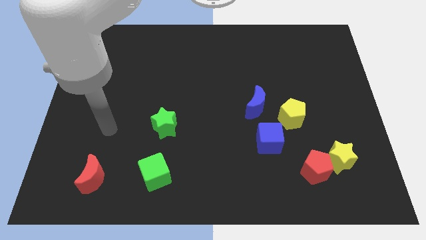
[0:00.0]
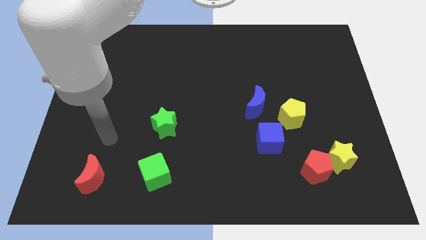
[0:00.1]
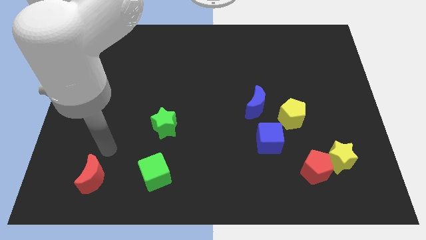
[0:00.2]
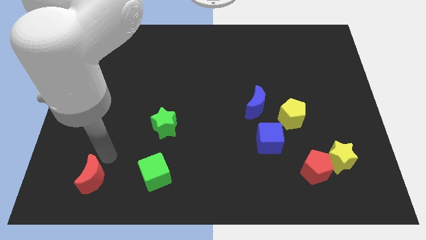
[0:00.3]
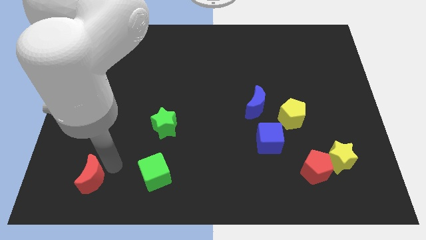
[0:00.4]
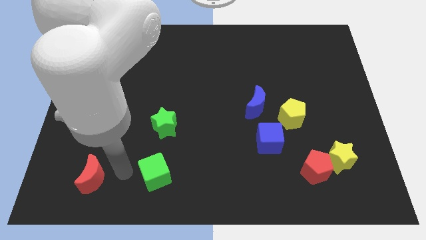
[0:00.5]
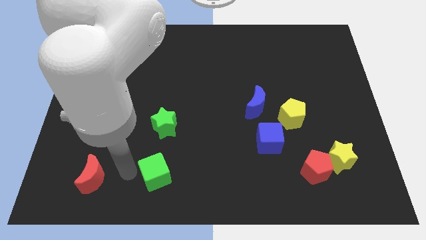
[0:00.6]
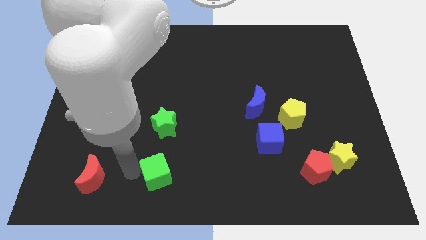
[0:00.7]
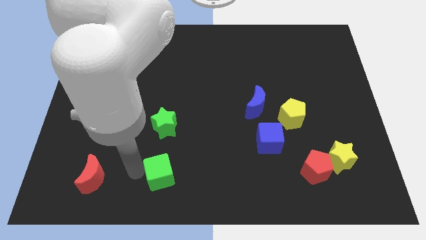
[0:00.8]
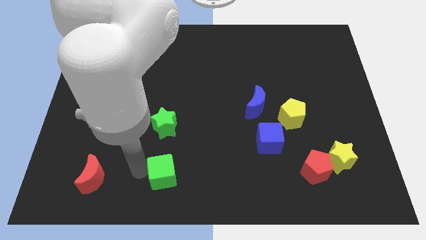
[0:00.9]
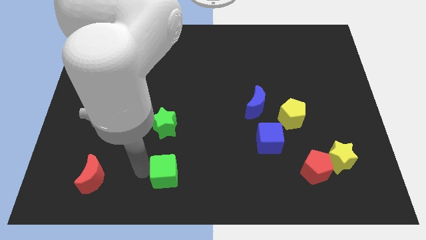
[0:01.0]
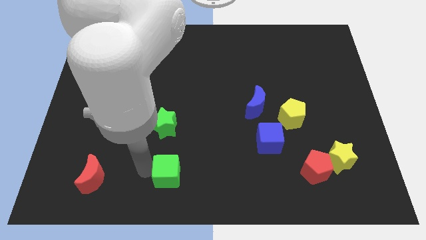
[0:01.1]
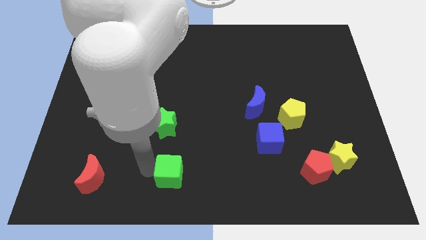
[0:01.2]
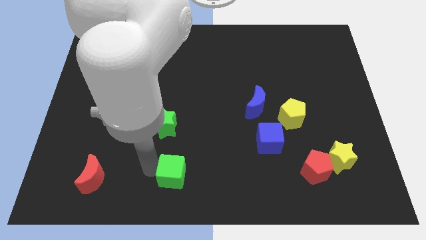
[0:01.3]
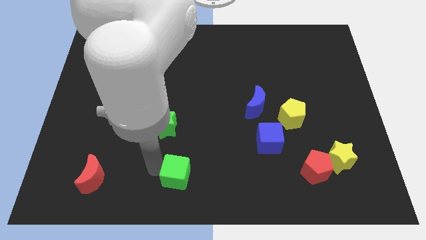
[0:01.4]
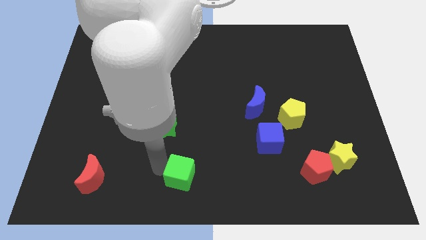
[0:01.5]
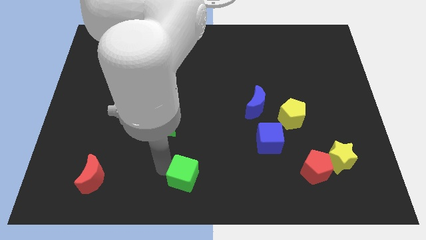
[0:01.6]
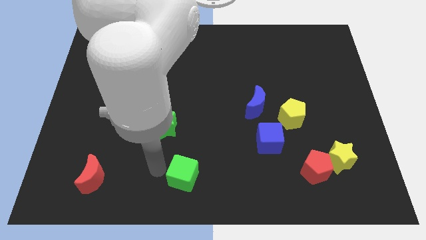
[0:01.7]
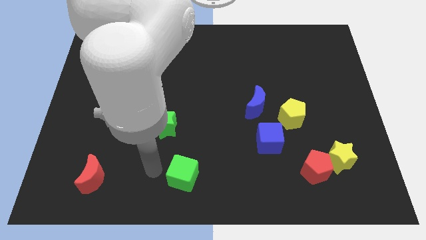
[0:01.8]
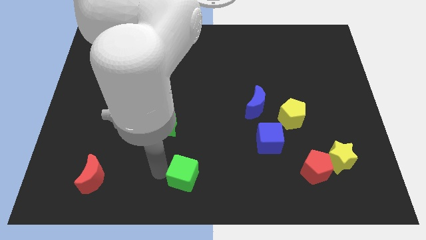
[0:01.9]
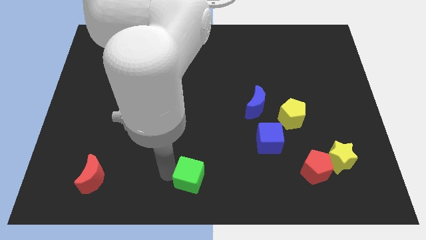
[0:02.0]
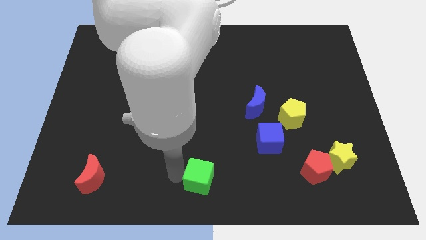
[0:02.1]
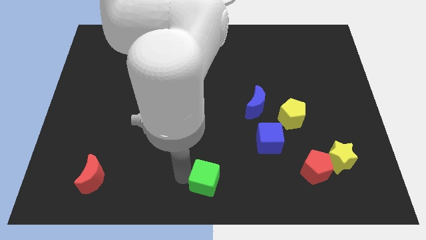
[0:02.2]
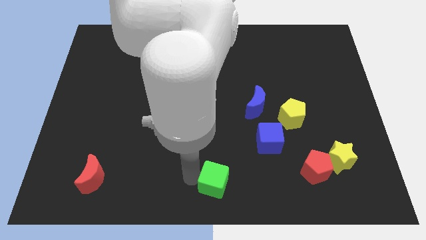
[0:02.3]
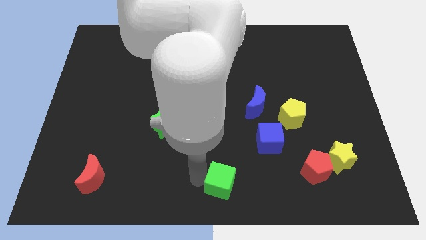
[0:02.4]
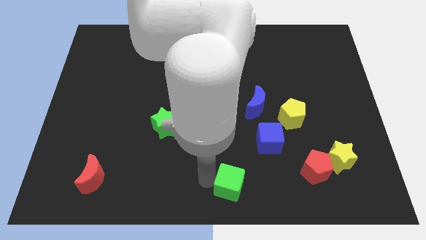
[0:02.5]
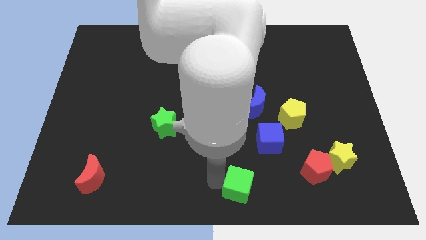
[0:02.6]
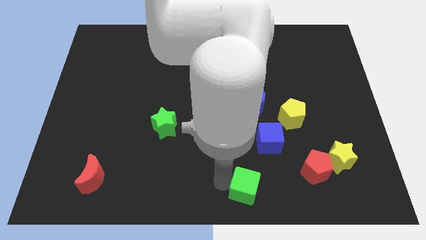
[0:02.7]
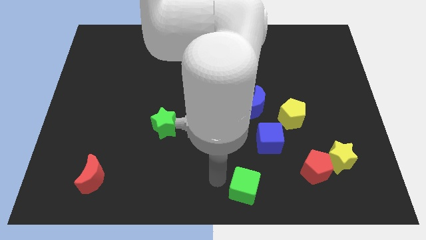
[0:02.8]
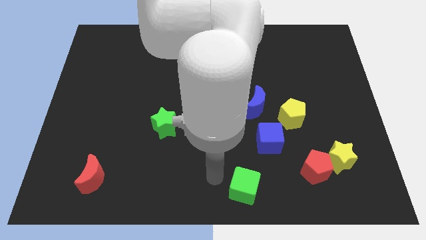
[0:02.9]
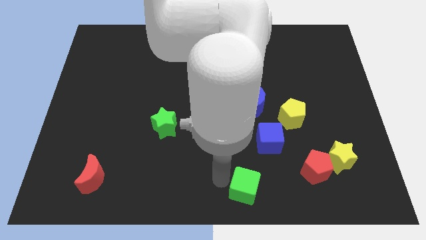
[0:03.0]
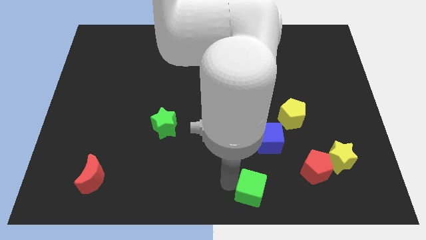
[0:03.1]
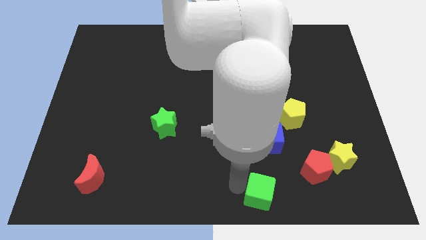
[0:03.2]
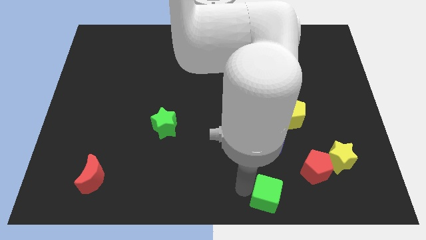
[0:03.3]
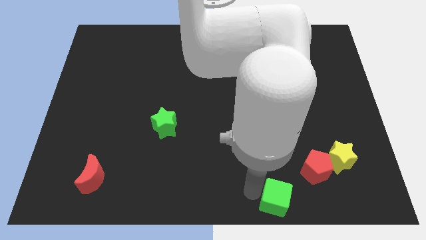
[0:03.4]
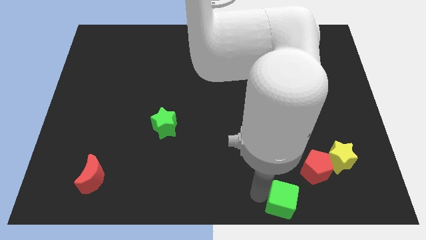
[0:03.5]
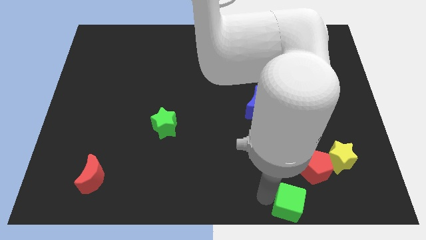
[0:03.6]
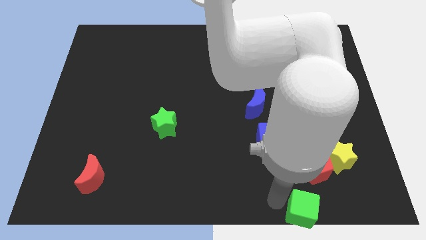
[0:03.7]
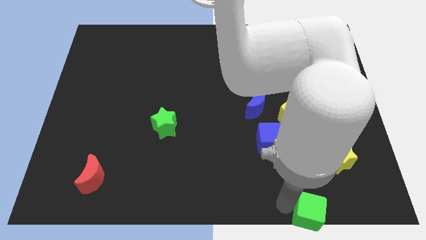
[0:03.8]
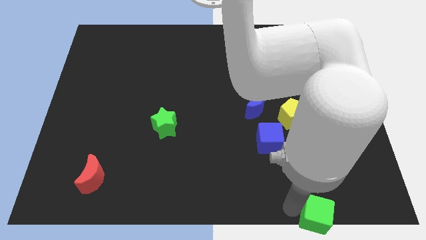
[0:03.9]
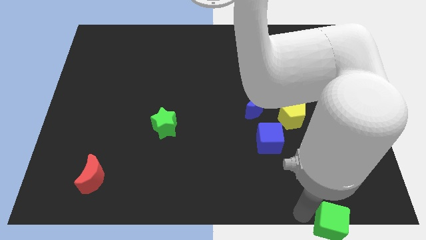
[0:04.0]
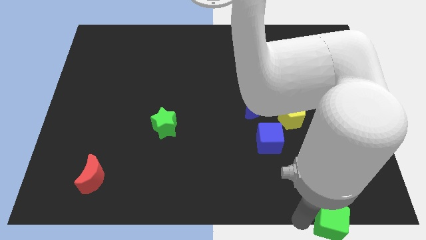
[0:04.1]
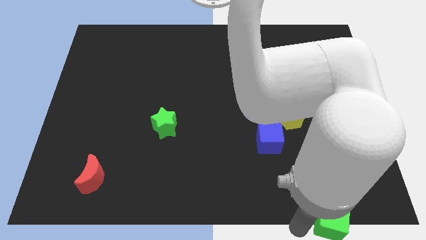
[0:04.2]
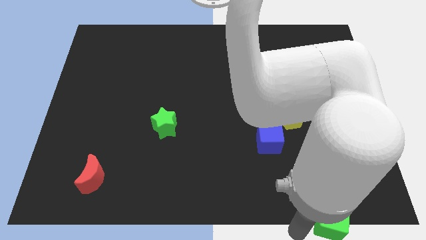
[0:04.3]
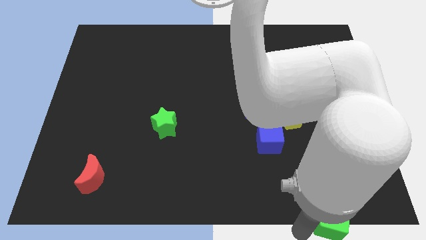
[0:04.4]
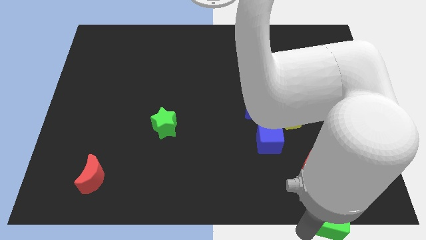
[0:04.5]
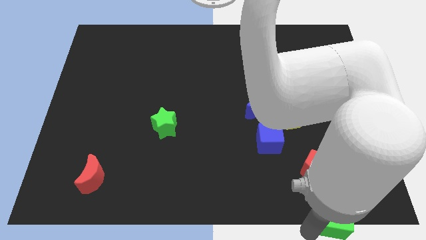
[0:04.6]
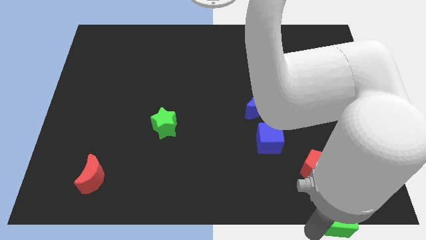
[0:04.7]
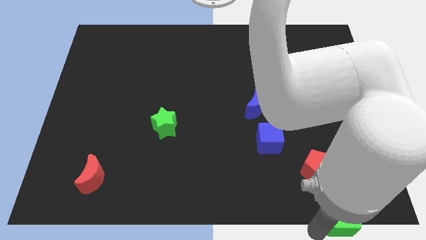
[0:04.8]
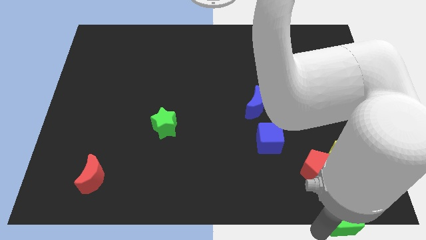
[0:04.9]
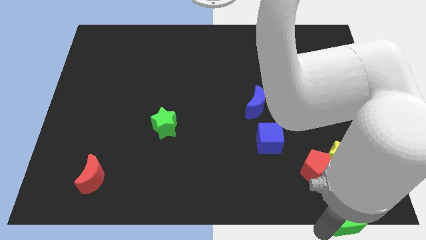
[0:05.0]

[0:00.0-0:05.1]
move the green cube to the bottom right
